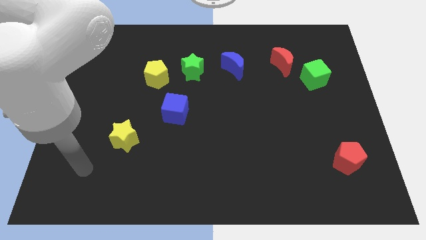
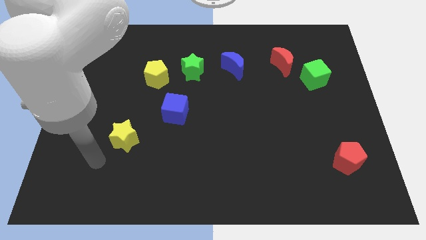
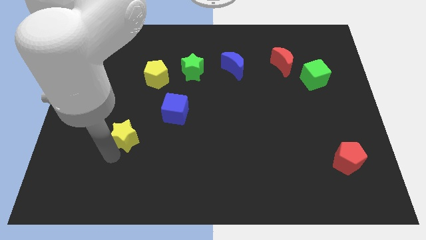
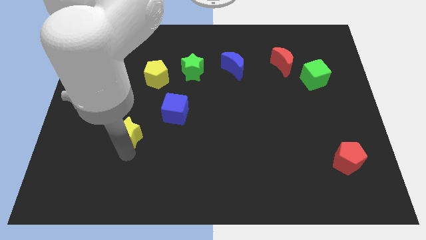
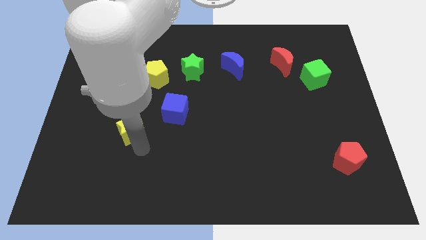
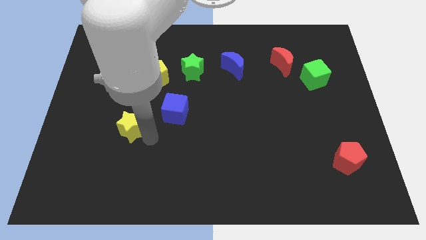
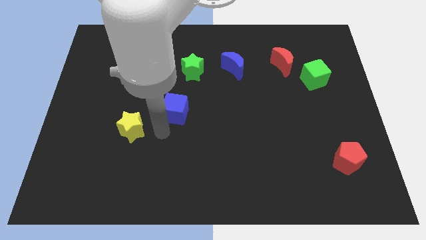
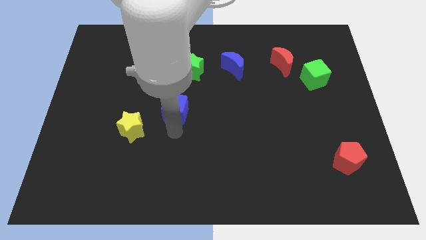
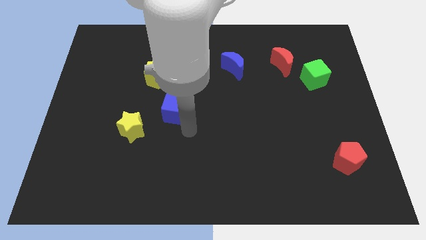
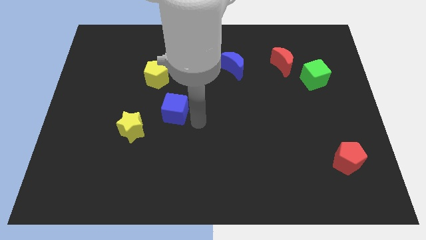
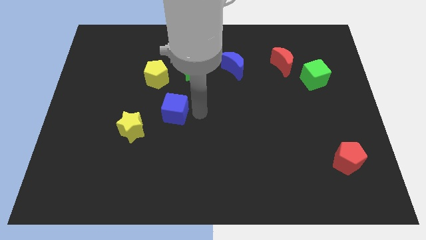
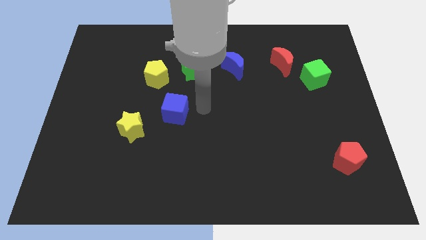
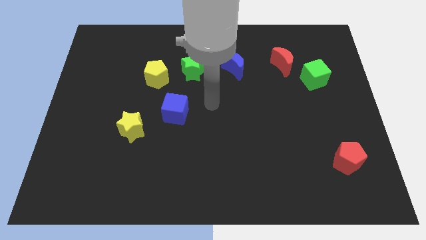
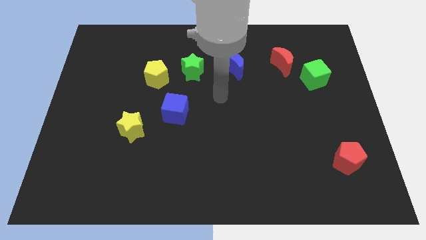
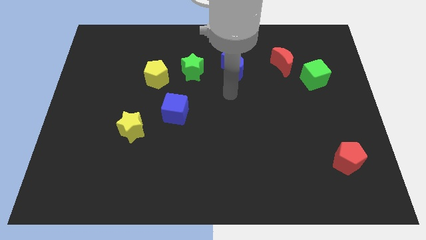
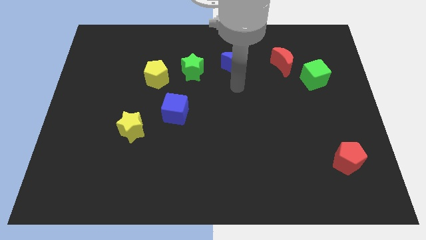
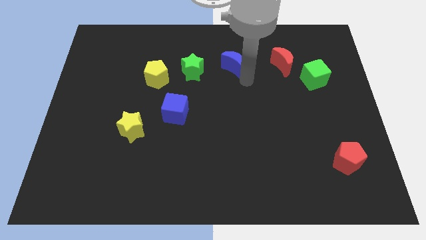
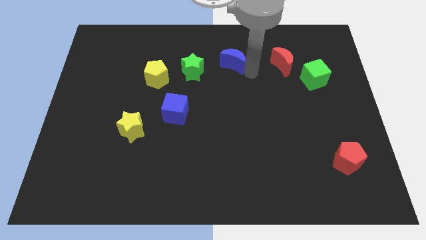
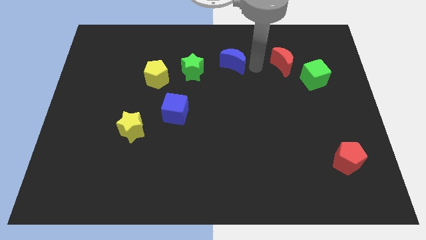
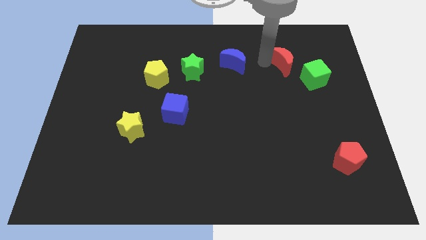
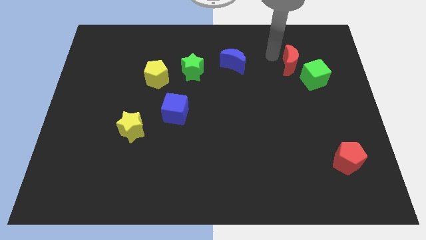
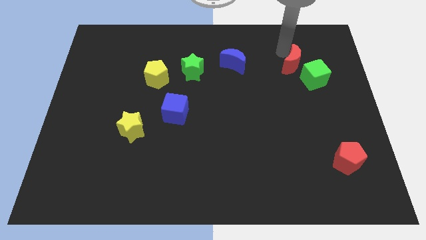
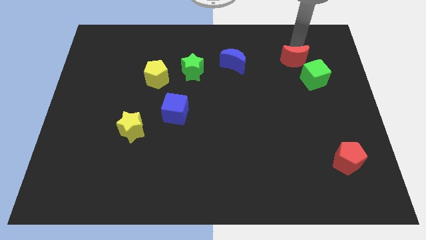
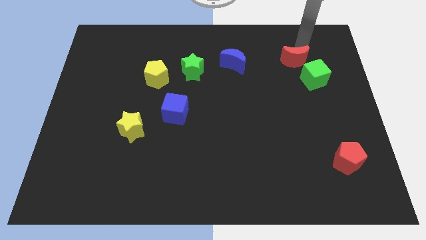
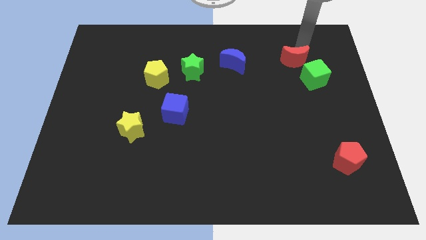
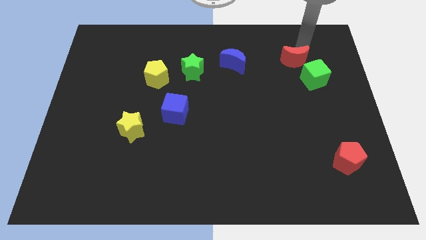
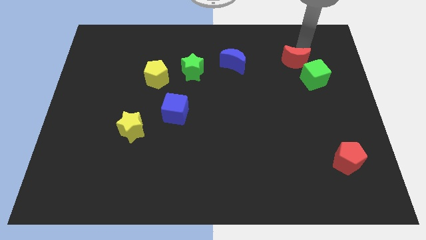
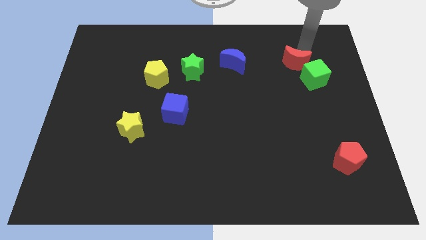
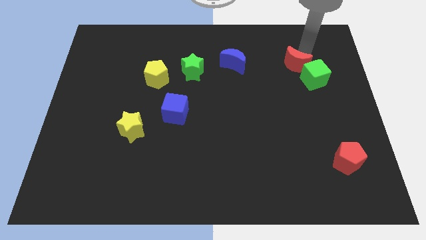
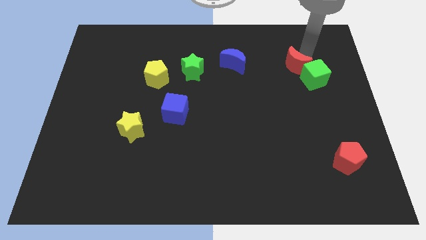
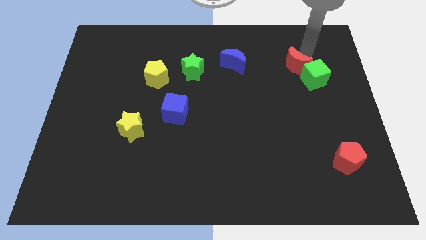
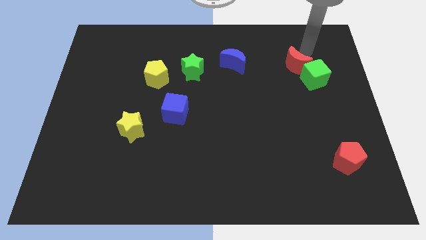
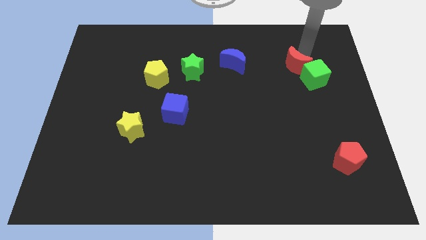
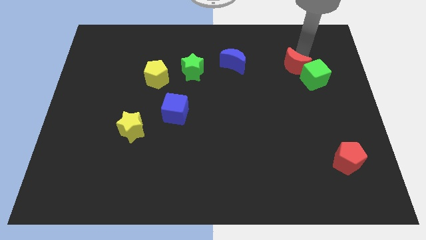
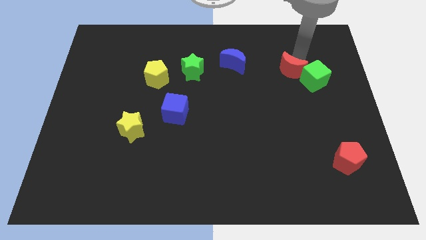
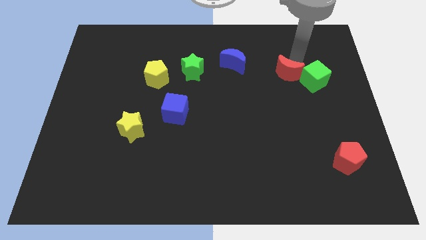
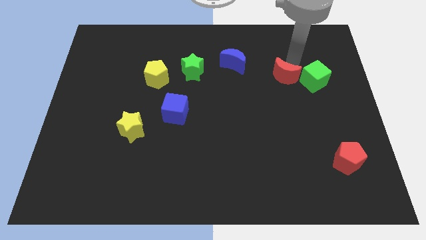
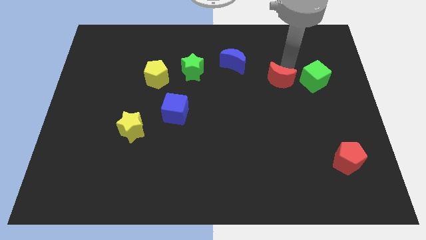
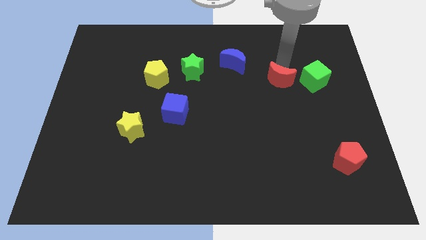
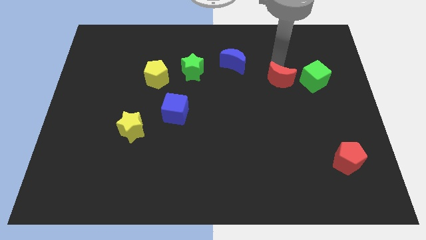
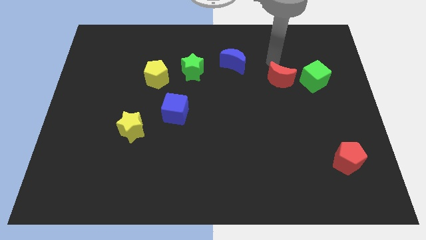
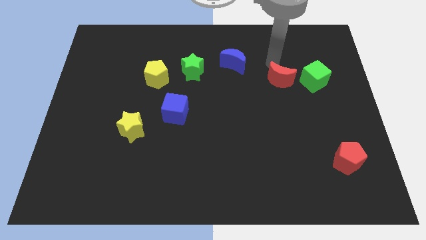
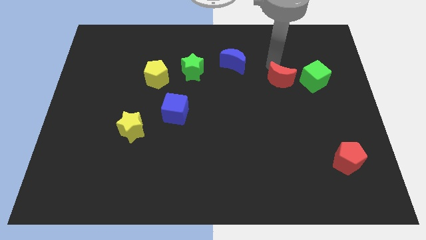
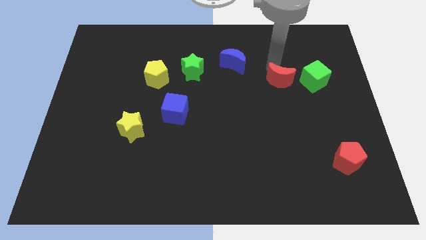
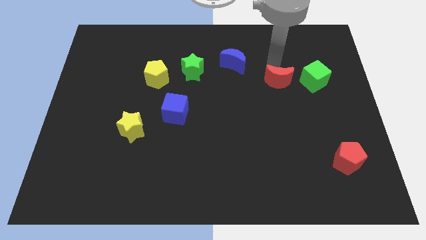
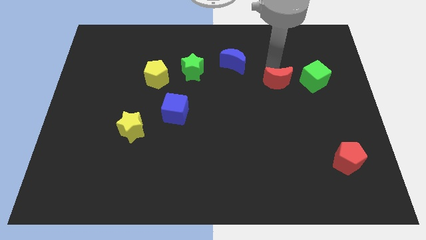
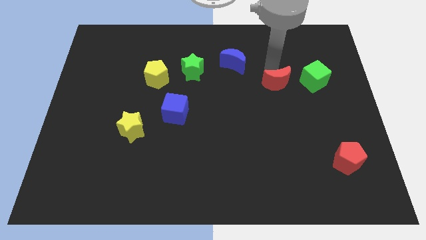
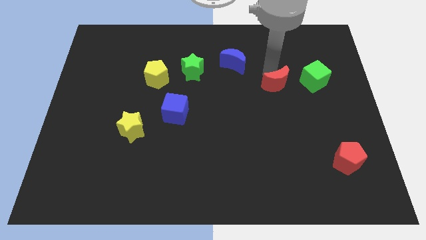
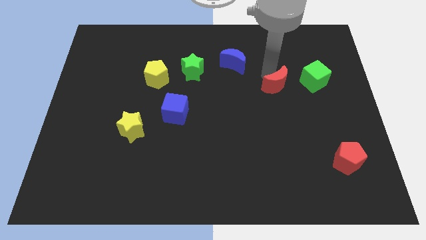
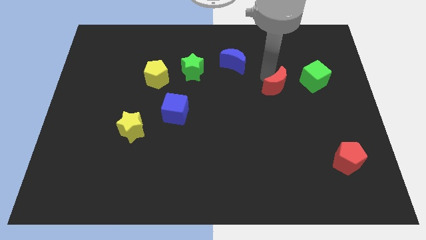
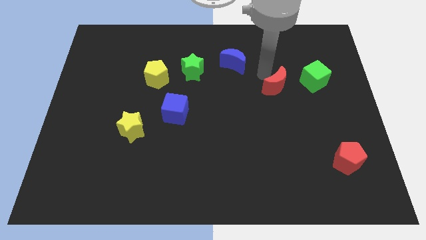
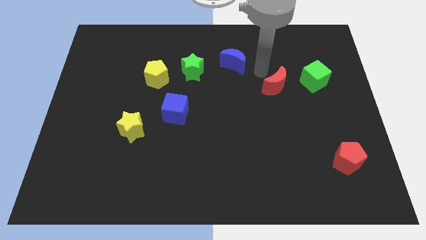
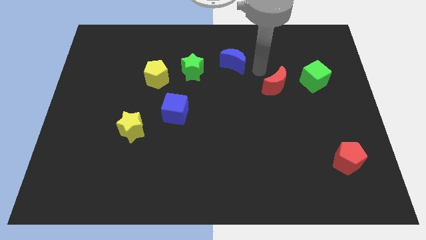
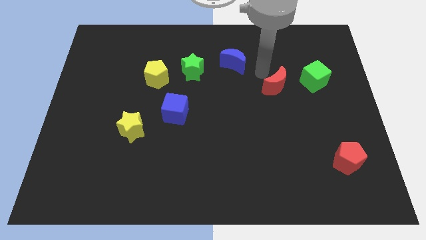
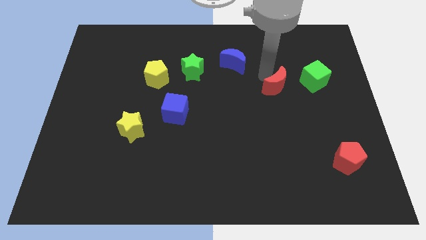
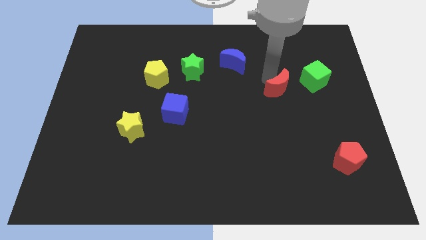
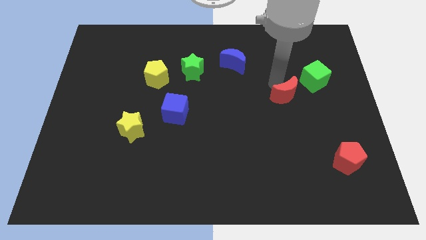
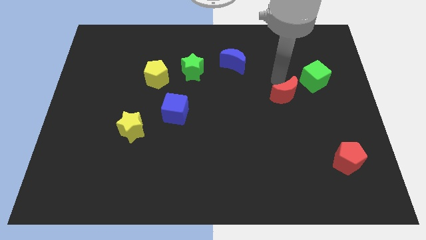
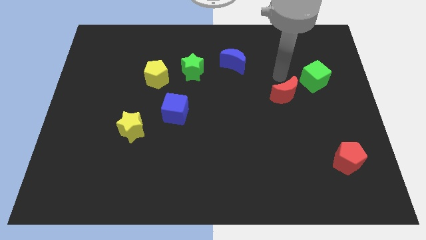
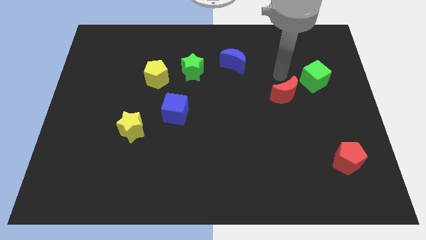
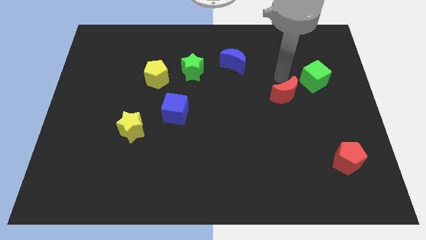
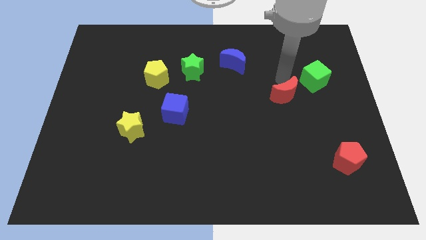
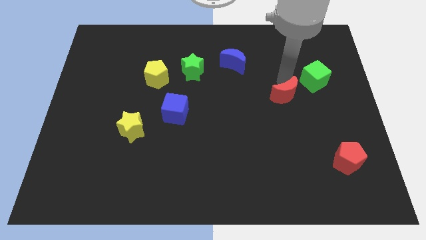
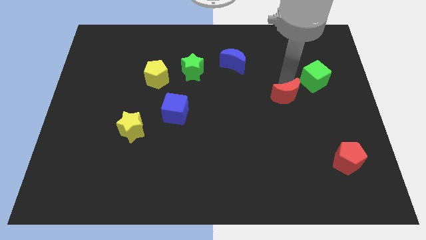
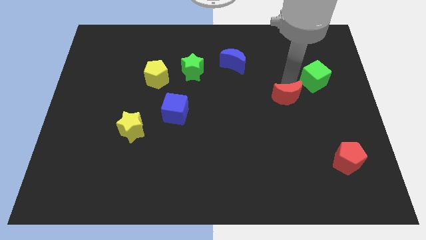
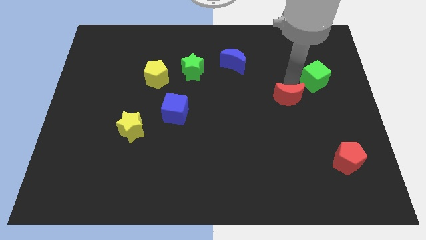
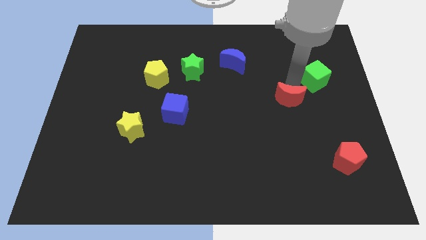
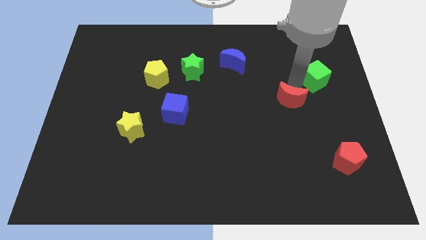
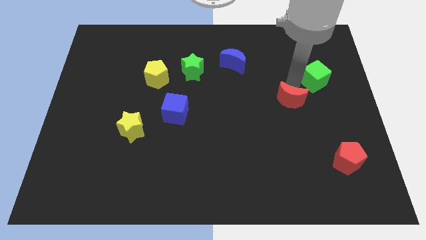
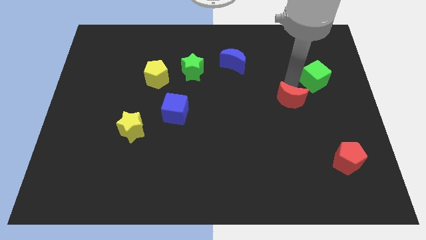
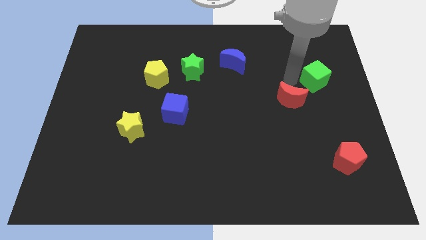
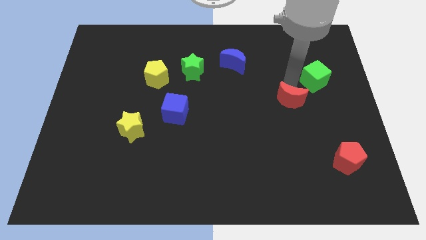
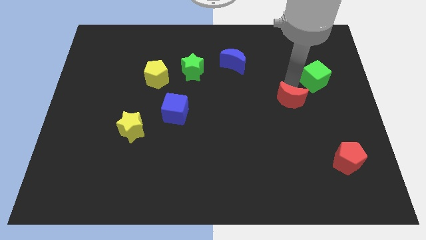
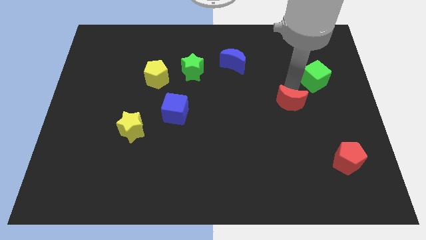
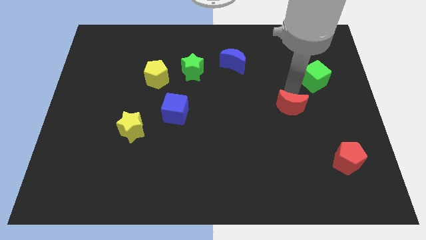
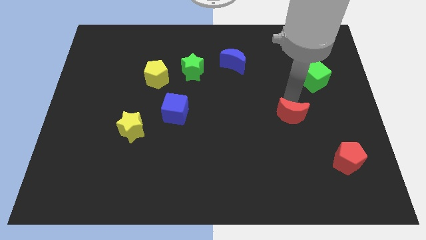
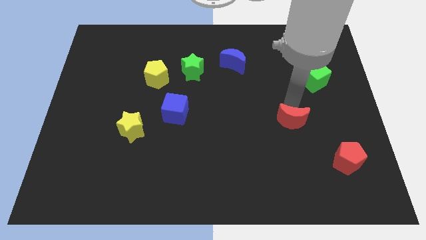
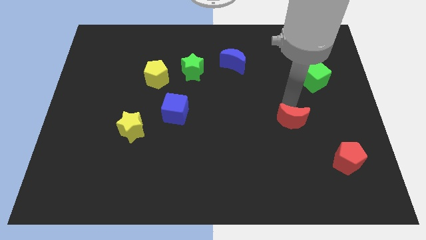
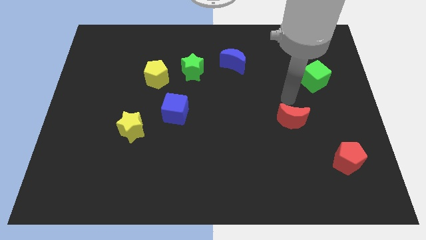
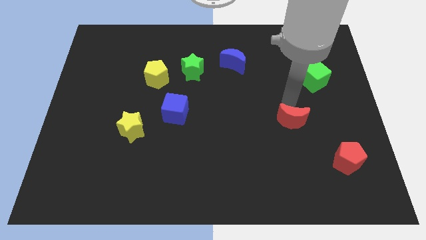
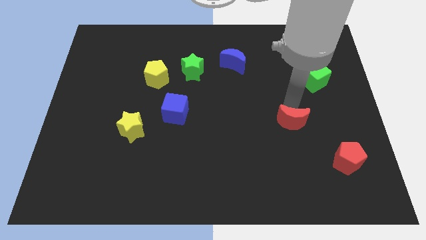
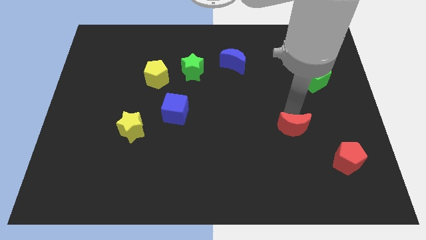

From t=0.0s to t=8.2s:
move the red moon downwards
